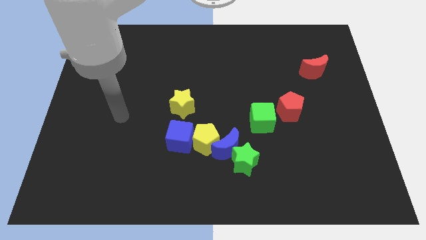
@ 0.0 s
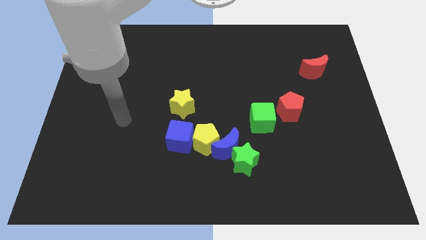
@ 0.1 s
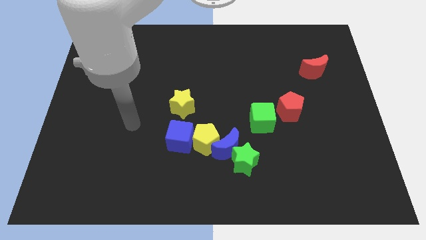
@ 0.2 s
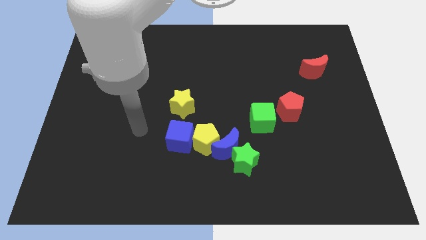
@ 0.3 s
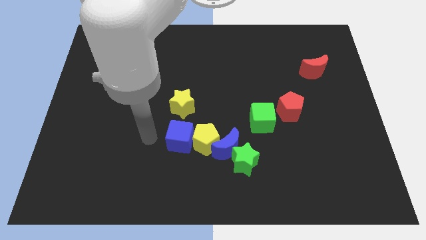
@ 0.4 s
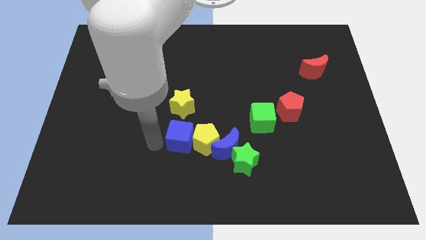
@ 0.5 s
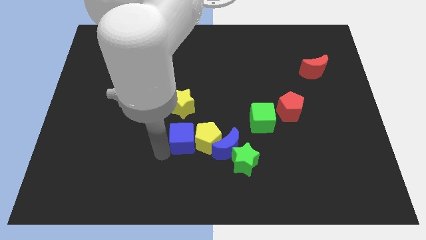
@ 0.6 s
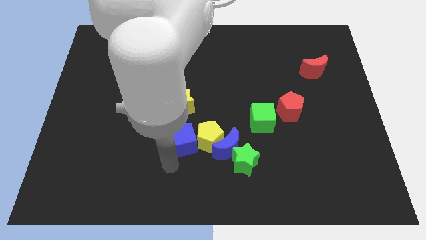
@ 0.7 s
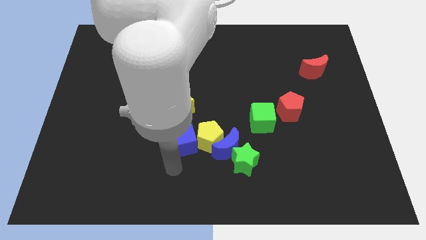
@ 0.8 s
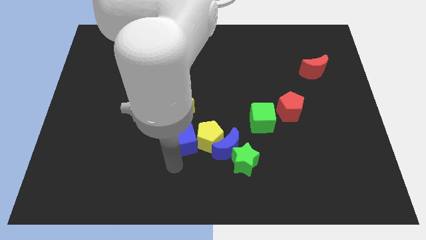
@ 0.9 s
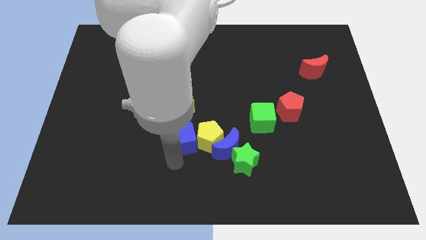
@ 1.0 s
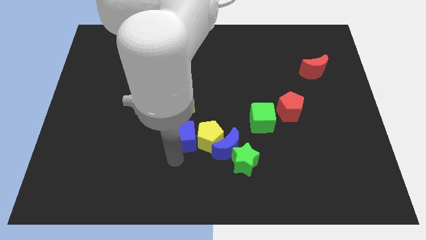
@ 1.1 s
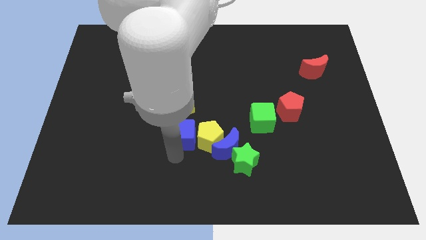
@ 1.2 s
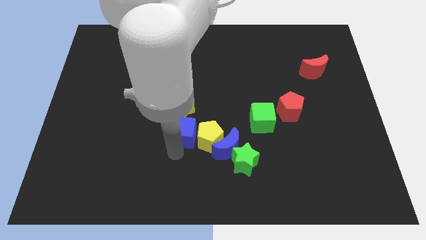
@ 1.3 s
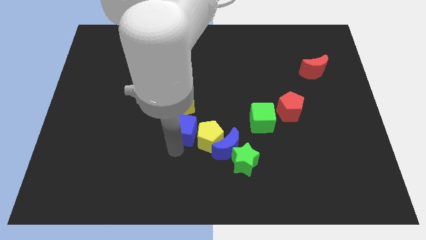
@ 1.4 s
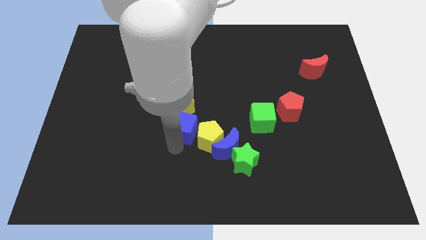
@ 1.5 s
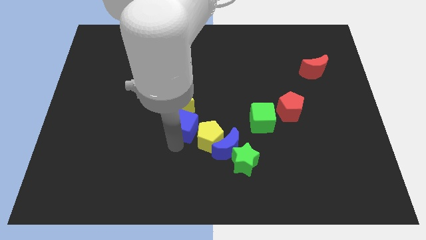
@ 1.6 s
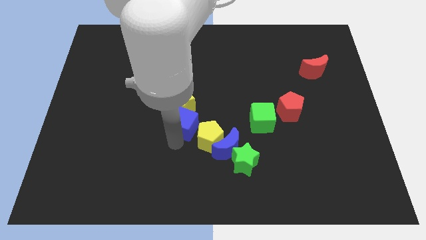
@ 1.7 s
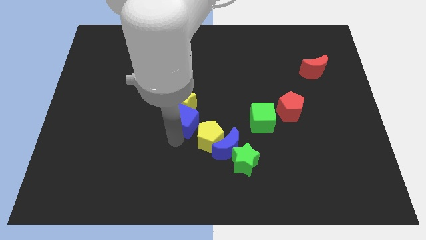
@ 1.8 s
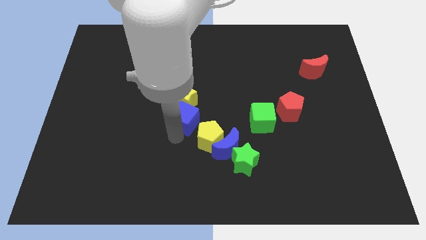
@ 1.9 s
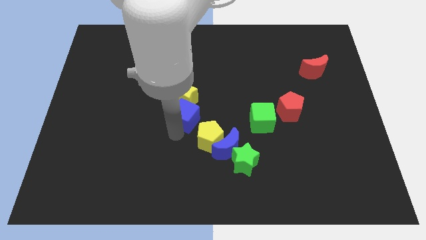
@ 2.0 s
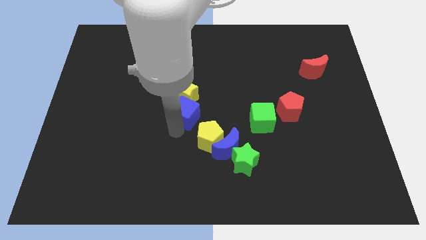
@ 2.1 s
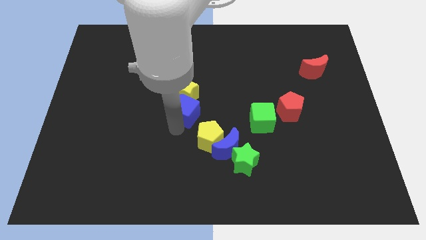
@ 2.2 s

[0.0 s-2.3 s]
slightly slide the blue cube up

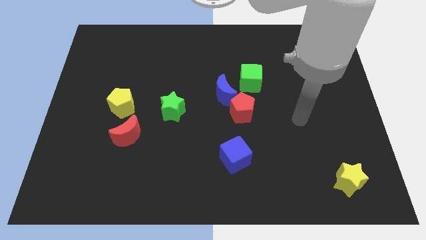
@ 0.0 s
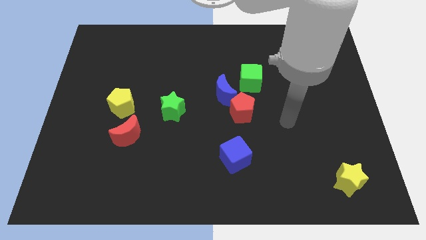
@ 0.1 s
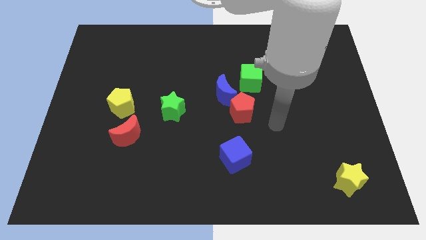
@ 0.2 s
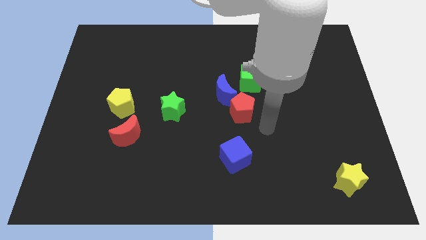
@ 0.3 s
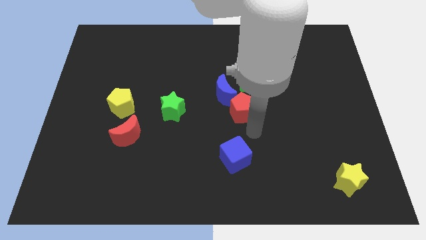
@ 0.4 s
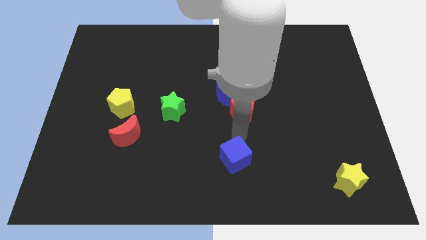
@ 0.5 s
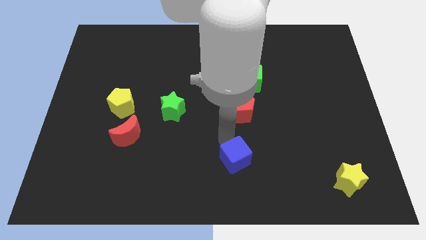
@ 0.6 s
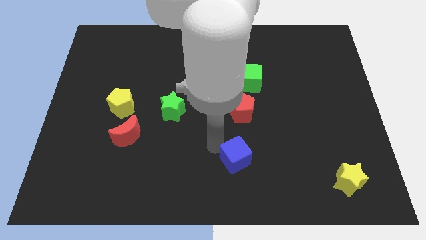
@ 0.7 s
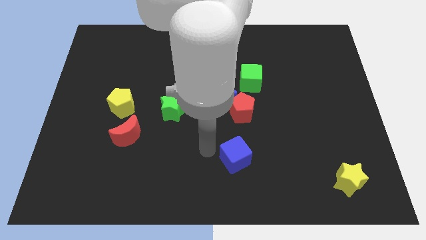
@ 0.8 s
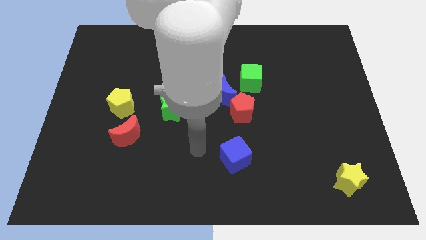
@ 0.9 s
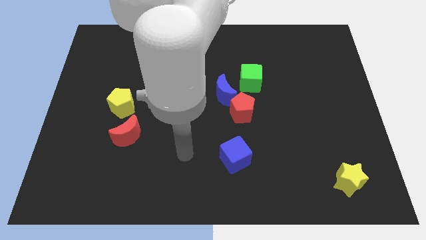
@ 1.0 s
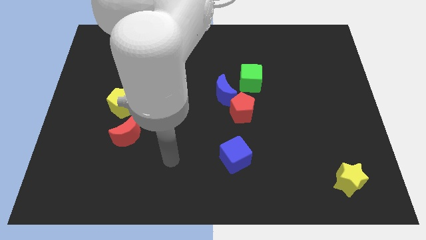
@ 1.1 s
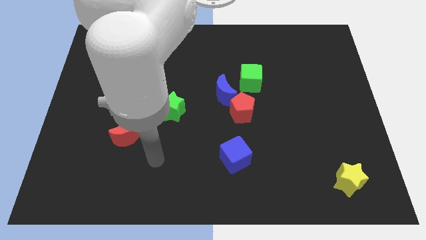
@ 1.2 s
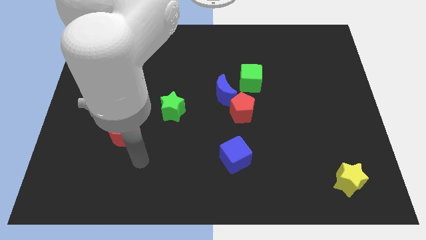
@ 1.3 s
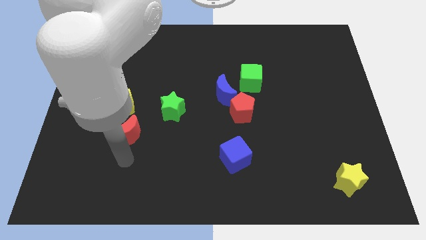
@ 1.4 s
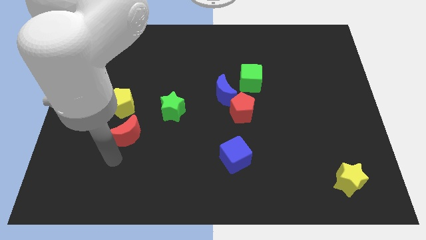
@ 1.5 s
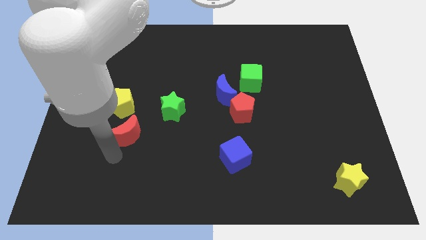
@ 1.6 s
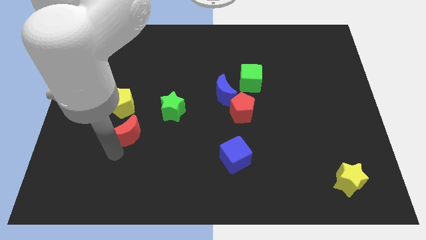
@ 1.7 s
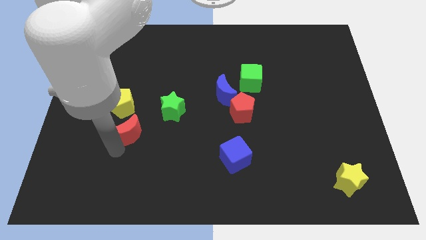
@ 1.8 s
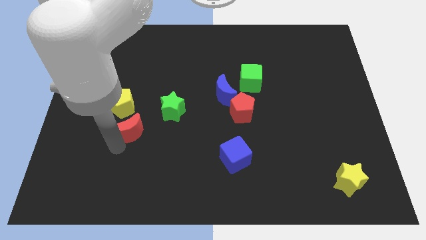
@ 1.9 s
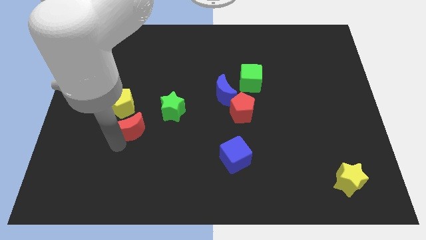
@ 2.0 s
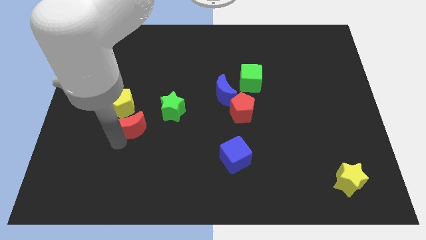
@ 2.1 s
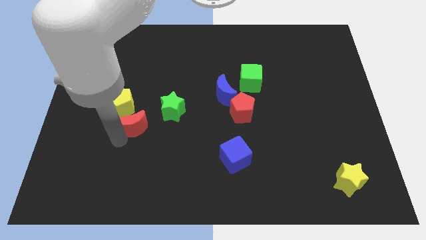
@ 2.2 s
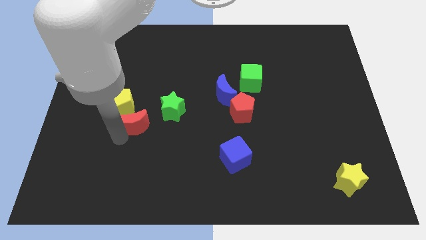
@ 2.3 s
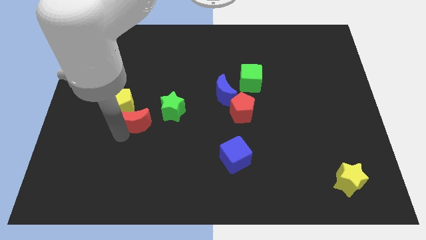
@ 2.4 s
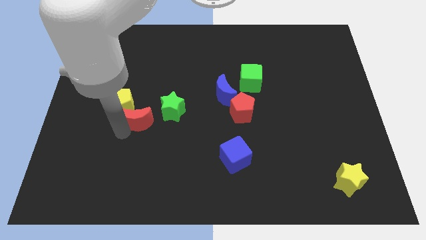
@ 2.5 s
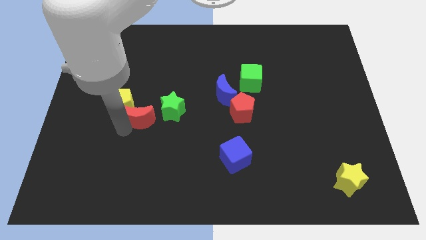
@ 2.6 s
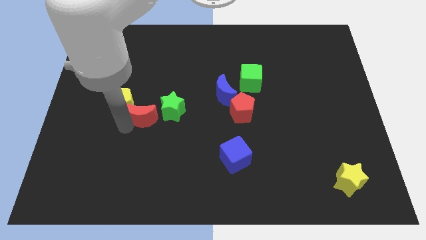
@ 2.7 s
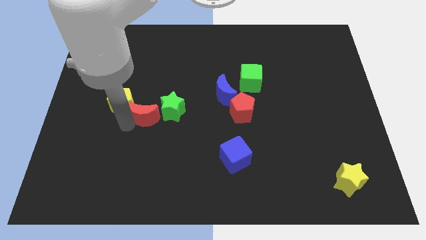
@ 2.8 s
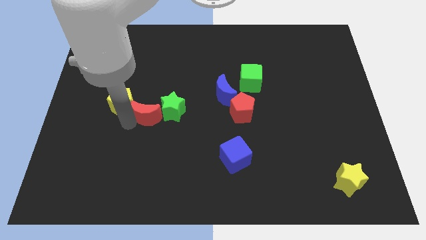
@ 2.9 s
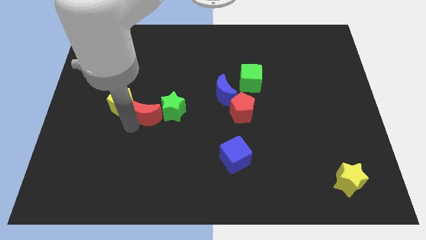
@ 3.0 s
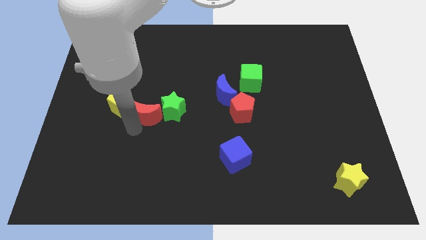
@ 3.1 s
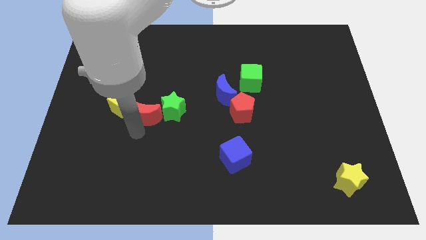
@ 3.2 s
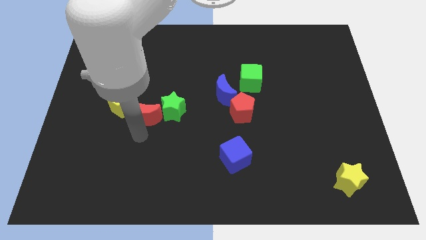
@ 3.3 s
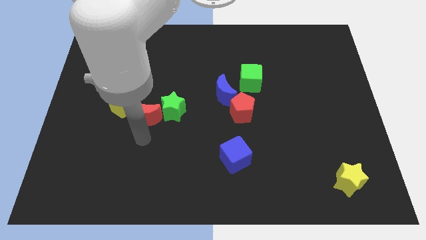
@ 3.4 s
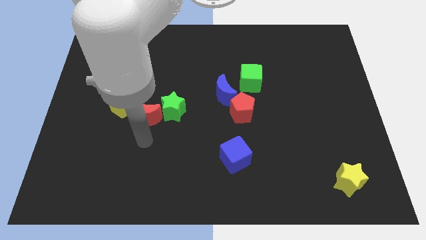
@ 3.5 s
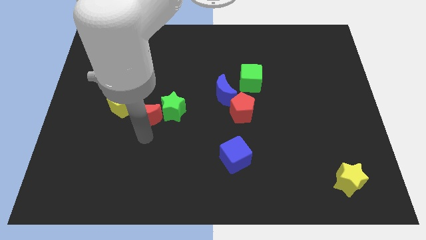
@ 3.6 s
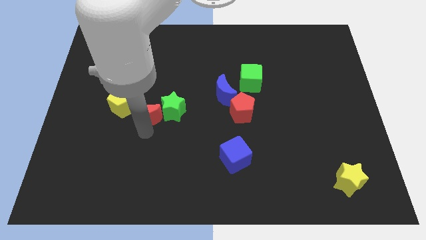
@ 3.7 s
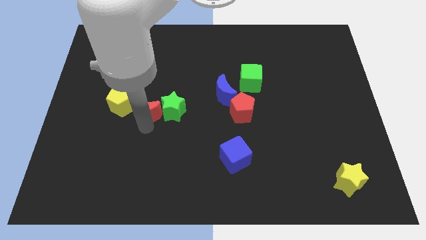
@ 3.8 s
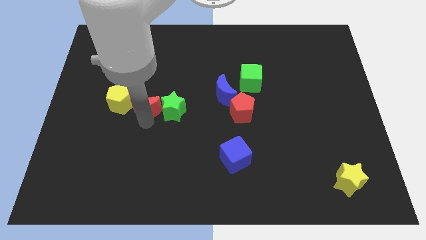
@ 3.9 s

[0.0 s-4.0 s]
slightly move the red moon upwards

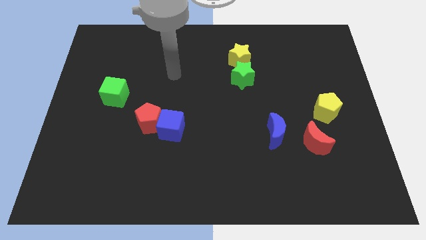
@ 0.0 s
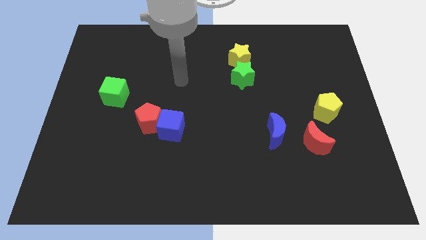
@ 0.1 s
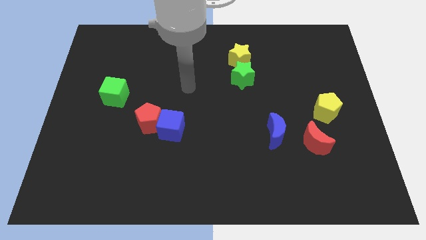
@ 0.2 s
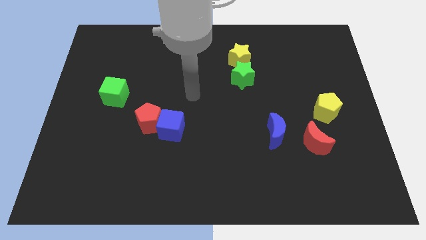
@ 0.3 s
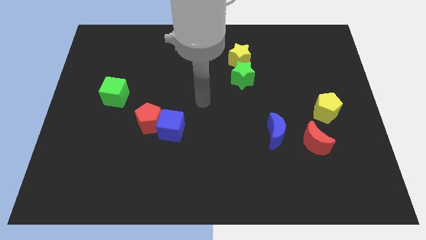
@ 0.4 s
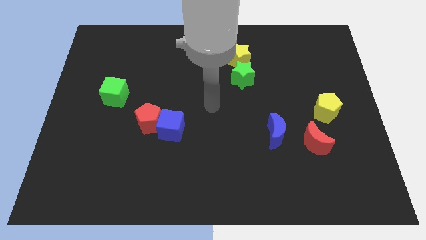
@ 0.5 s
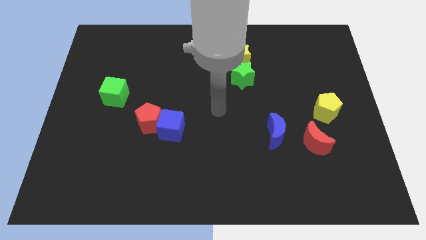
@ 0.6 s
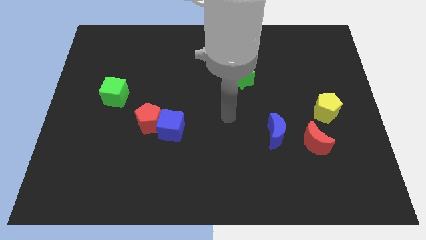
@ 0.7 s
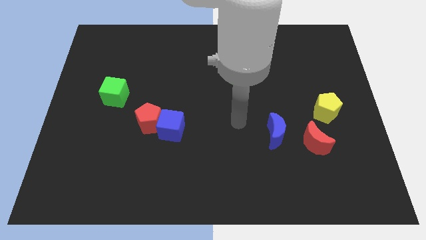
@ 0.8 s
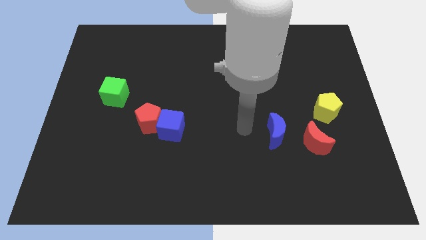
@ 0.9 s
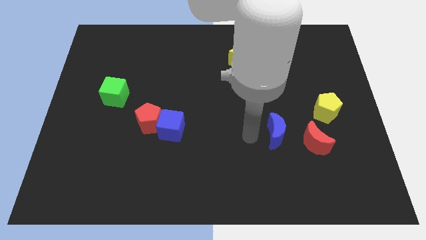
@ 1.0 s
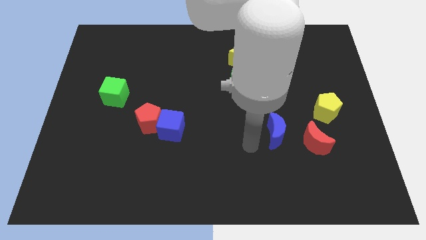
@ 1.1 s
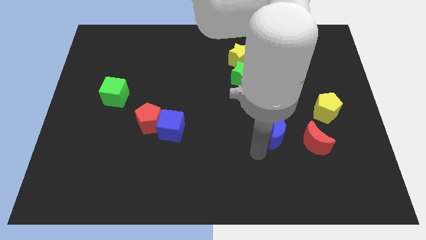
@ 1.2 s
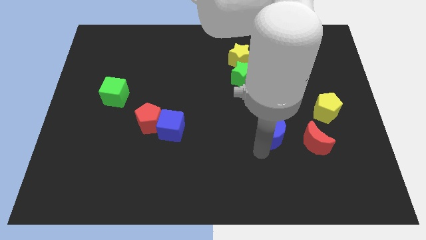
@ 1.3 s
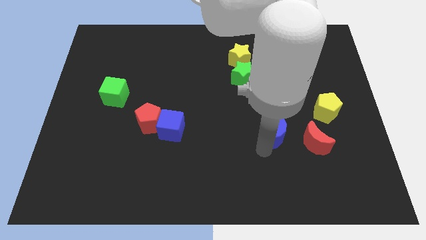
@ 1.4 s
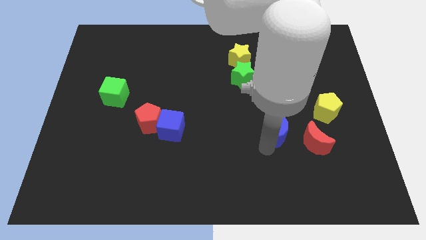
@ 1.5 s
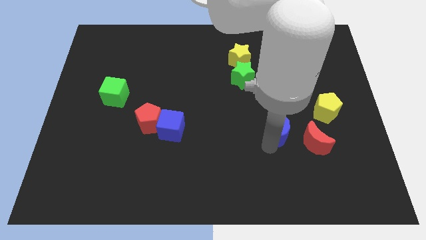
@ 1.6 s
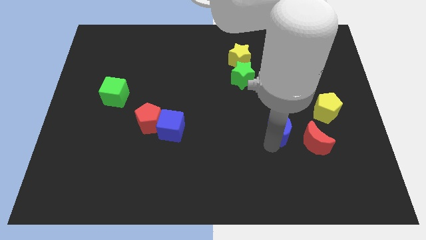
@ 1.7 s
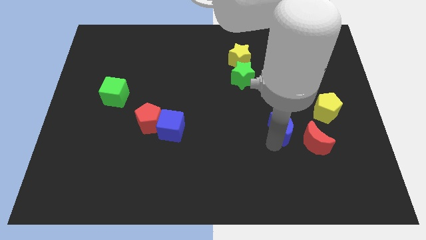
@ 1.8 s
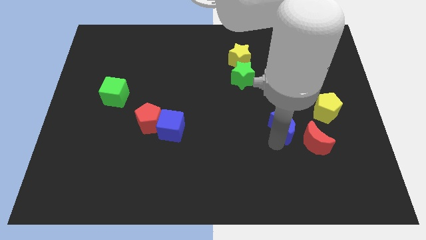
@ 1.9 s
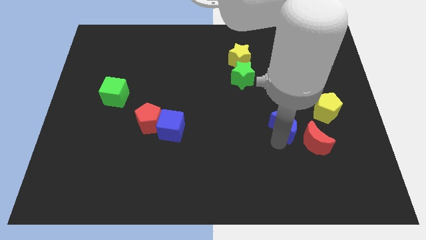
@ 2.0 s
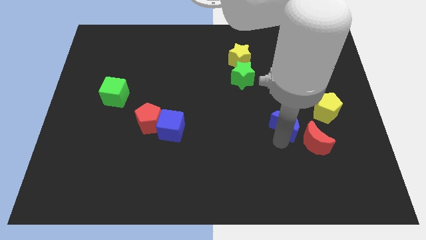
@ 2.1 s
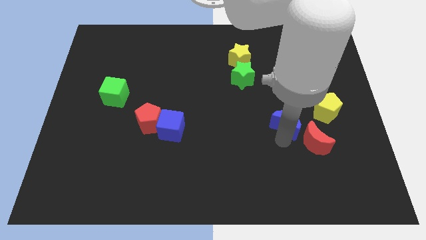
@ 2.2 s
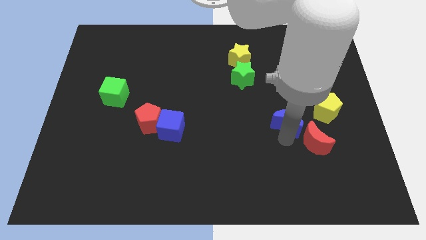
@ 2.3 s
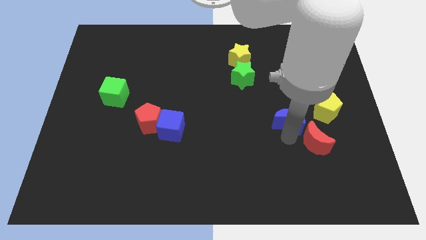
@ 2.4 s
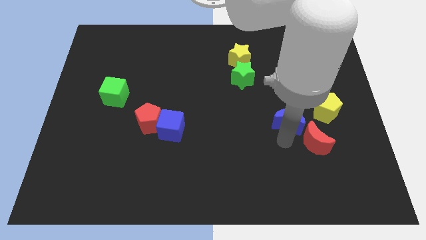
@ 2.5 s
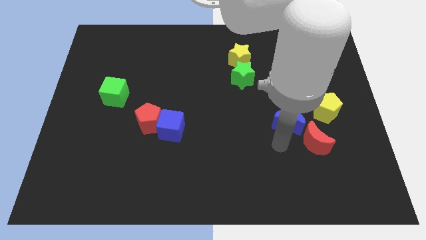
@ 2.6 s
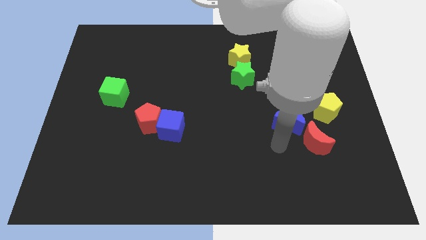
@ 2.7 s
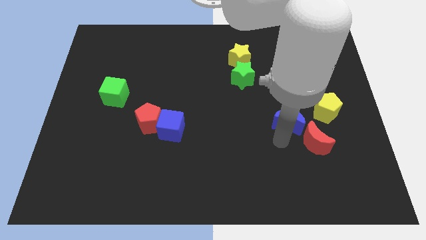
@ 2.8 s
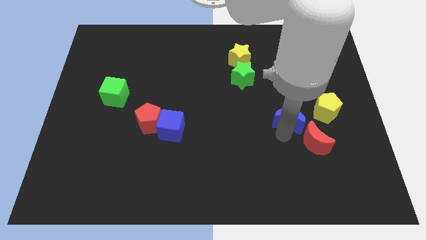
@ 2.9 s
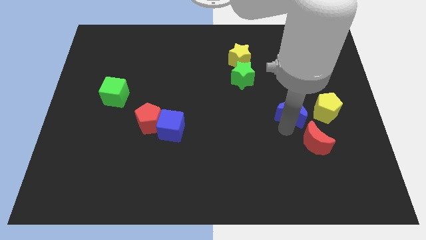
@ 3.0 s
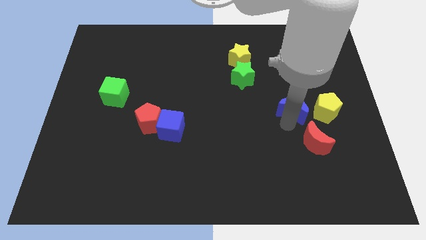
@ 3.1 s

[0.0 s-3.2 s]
slightly push the blue moon up and then to the right
